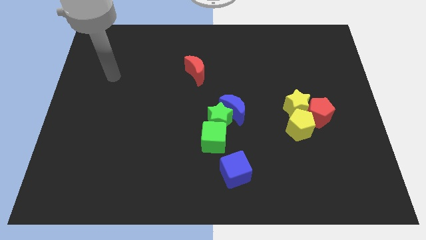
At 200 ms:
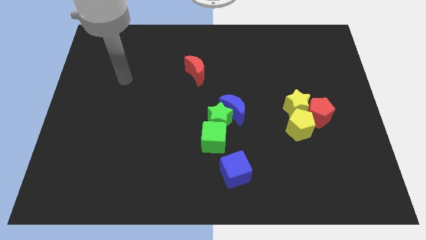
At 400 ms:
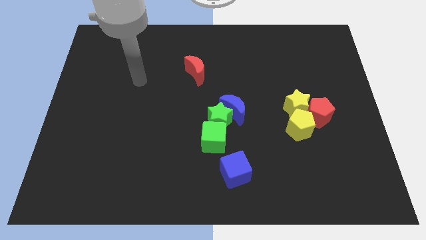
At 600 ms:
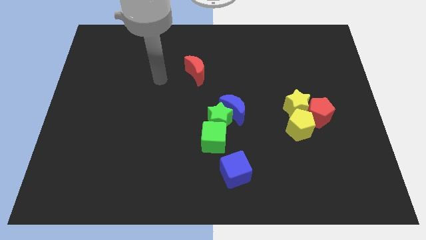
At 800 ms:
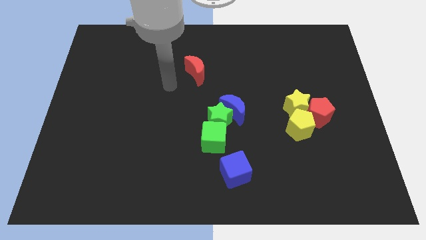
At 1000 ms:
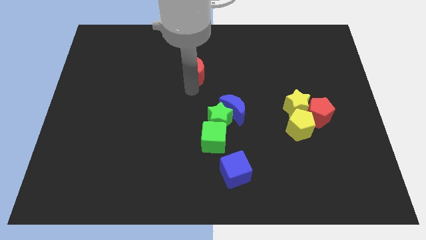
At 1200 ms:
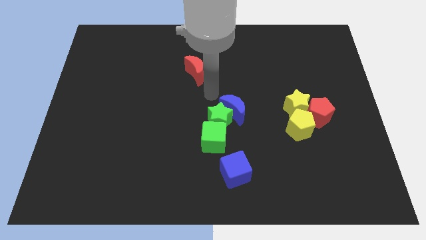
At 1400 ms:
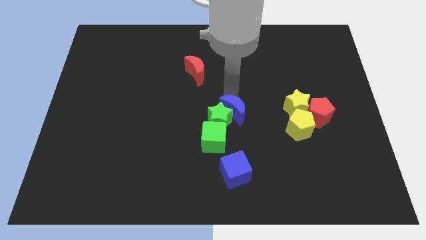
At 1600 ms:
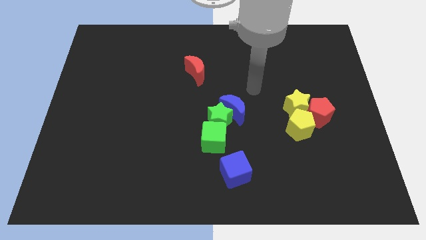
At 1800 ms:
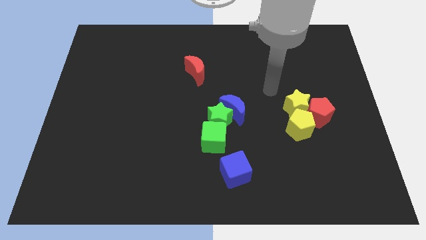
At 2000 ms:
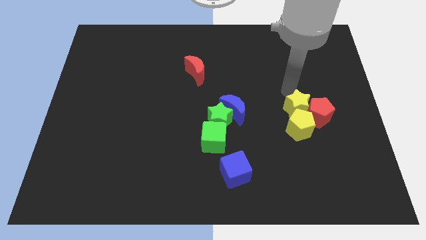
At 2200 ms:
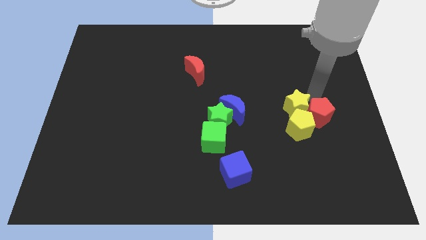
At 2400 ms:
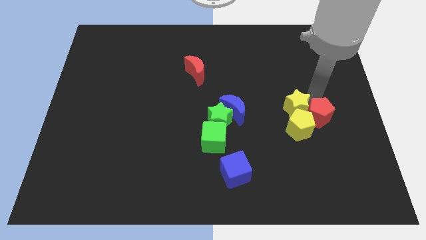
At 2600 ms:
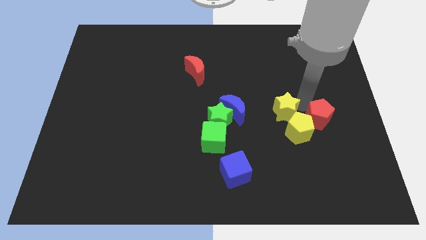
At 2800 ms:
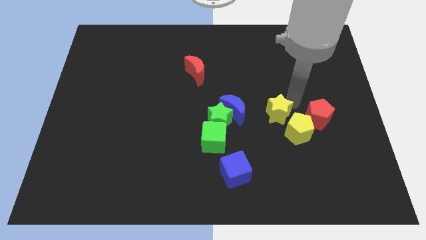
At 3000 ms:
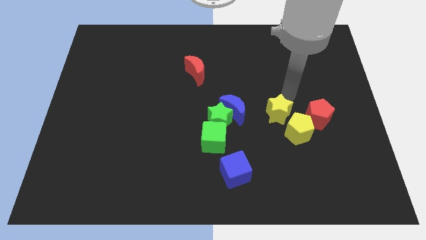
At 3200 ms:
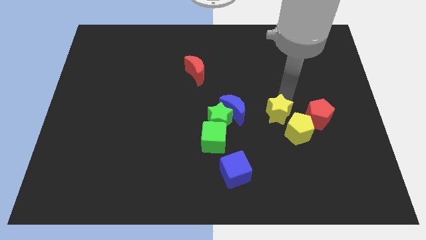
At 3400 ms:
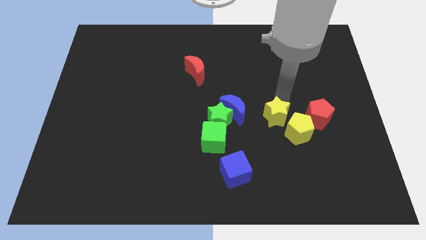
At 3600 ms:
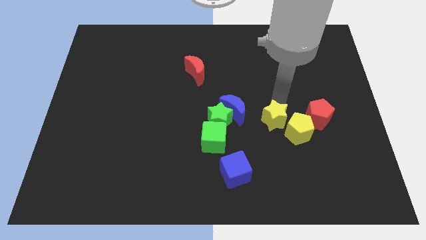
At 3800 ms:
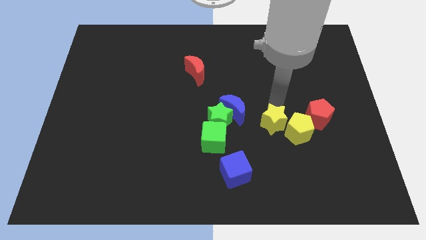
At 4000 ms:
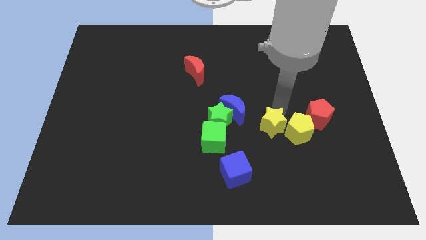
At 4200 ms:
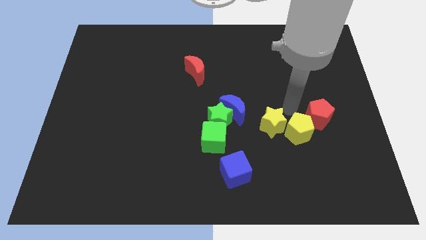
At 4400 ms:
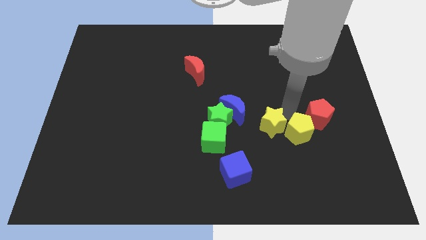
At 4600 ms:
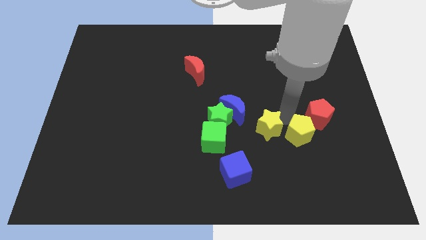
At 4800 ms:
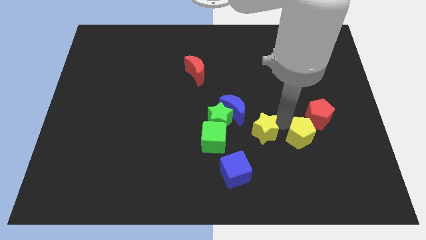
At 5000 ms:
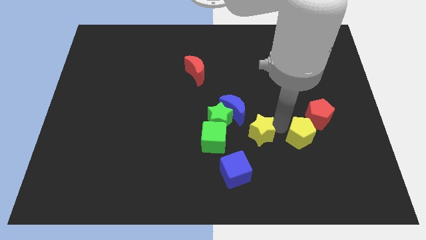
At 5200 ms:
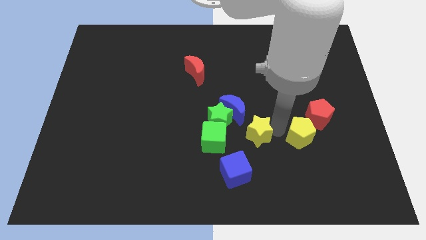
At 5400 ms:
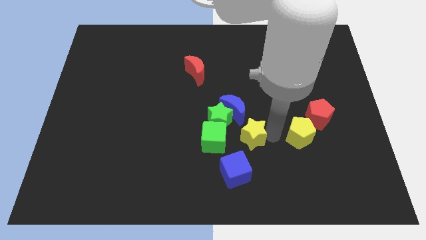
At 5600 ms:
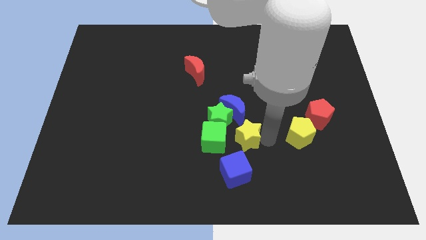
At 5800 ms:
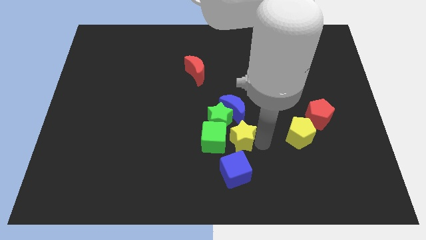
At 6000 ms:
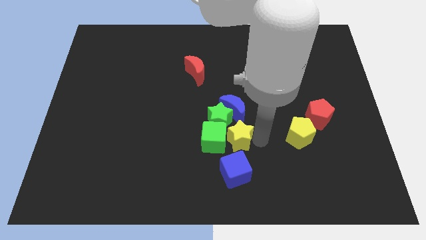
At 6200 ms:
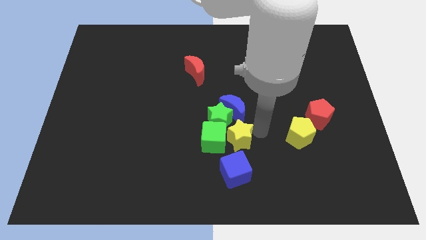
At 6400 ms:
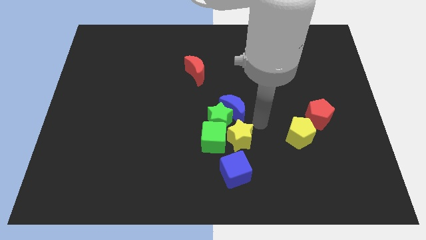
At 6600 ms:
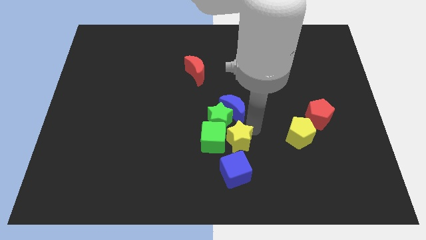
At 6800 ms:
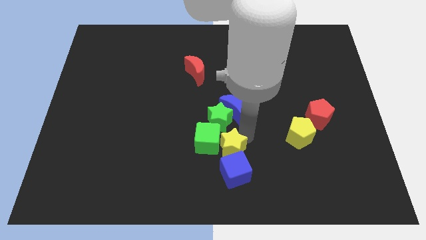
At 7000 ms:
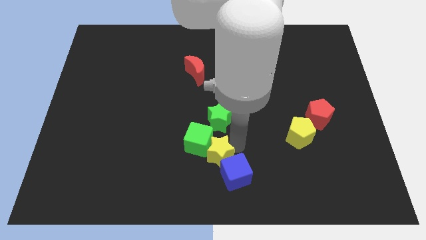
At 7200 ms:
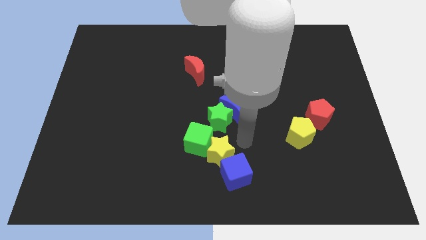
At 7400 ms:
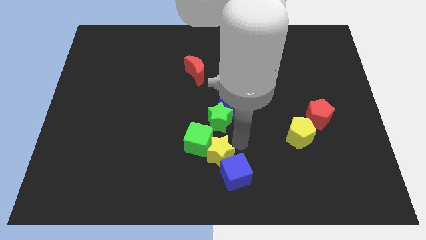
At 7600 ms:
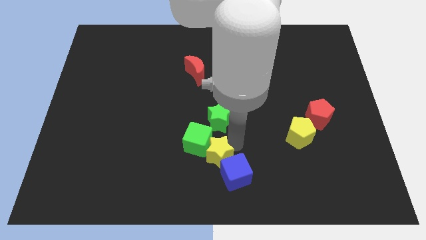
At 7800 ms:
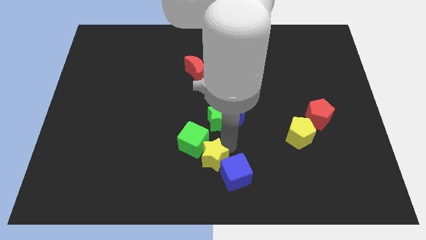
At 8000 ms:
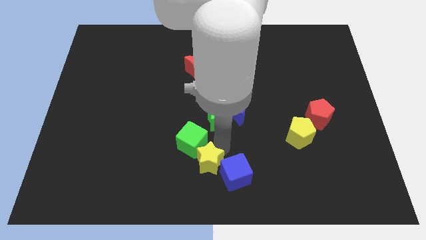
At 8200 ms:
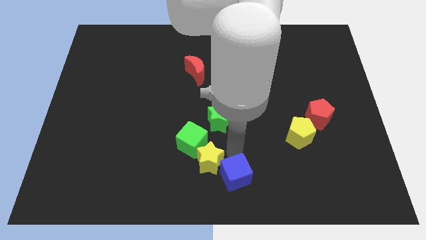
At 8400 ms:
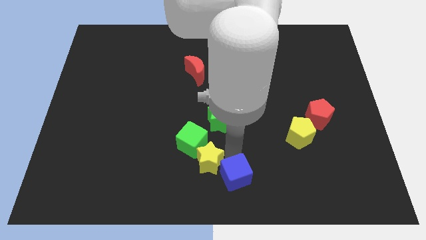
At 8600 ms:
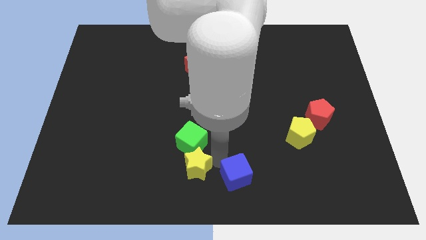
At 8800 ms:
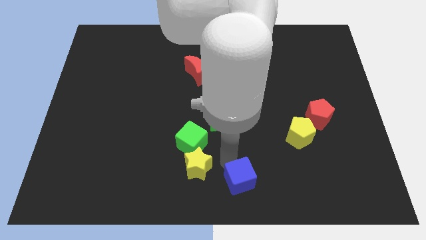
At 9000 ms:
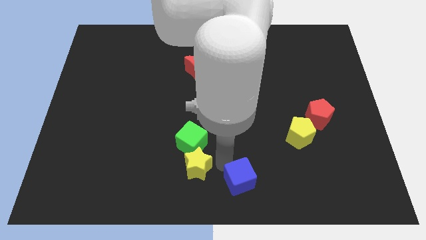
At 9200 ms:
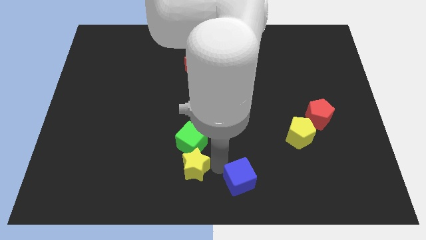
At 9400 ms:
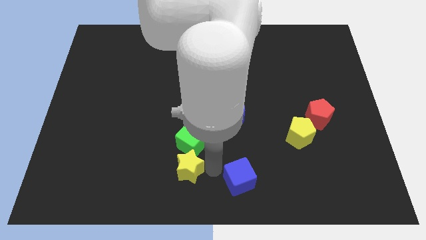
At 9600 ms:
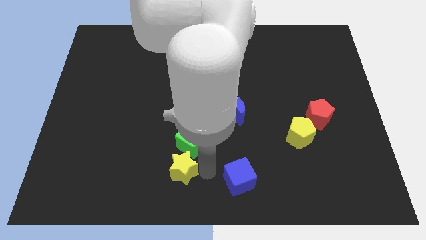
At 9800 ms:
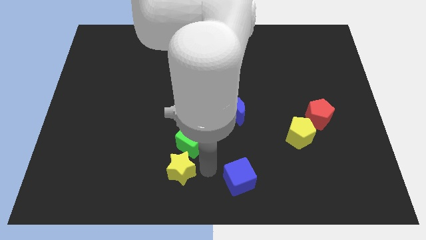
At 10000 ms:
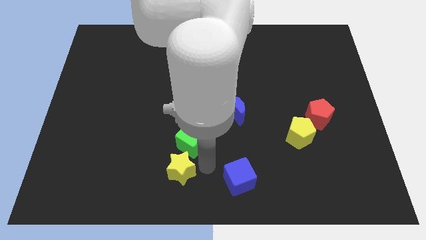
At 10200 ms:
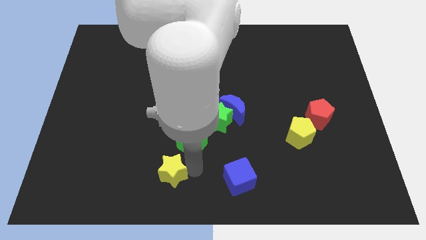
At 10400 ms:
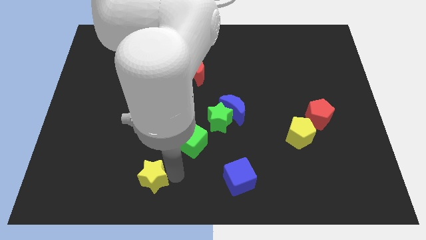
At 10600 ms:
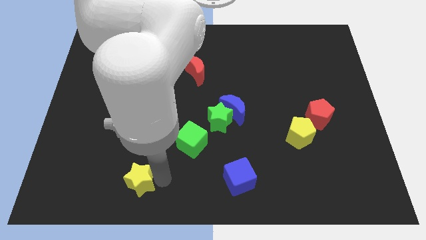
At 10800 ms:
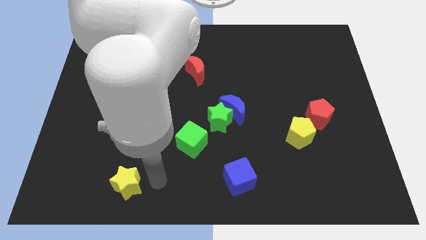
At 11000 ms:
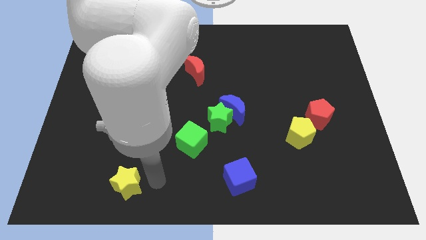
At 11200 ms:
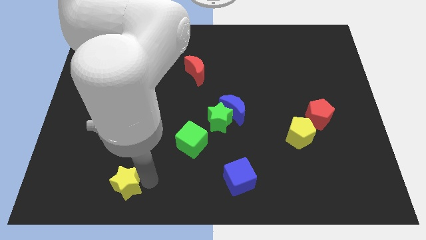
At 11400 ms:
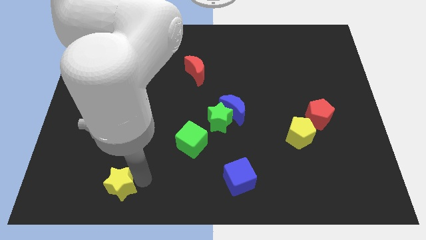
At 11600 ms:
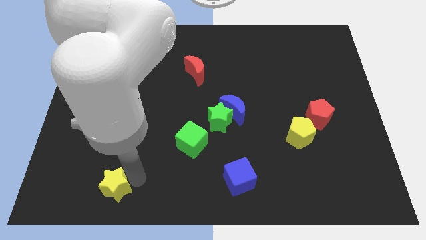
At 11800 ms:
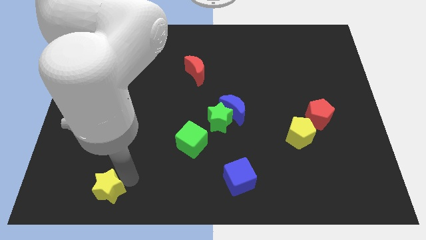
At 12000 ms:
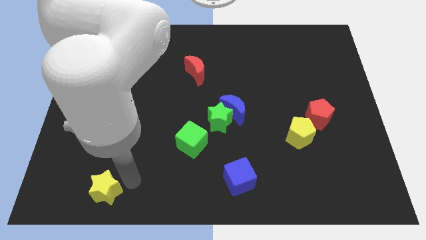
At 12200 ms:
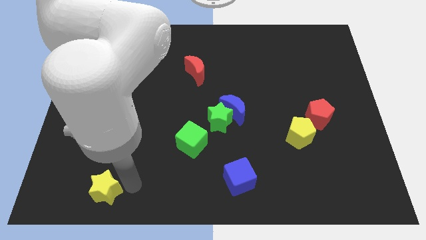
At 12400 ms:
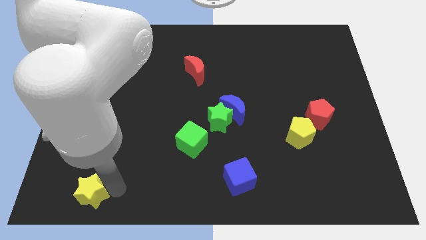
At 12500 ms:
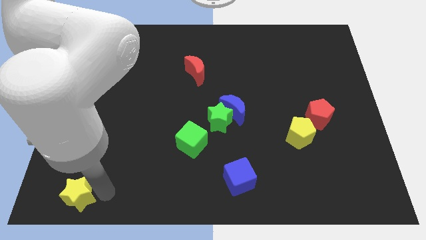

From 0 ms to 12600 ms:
slide the yellow star to the bottom left of the board
